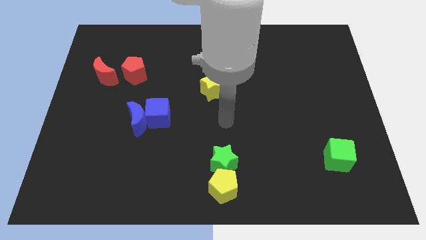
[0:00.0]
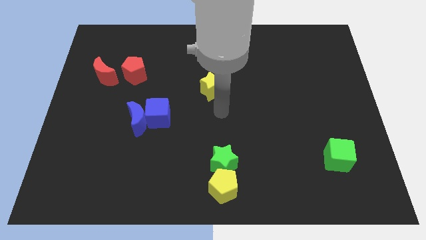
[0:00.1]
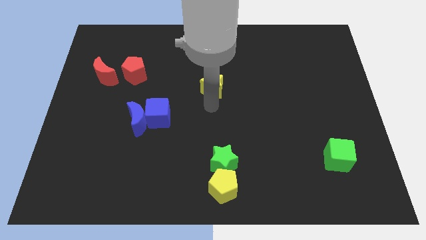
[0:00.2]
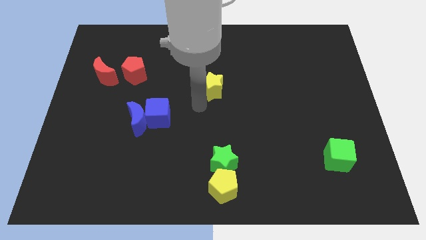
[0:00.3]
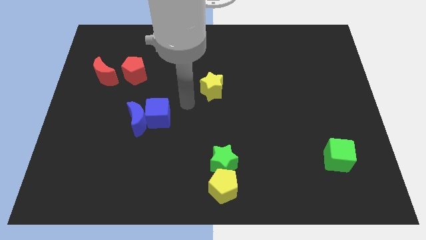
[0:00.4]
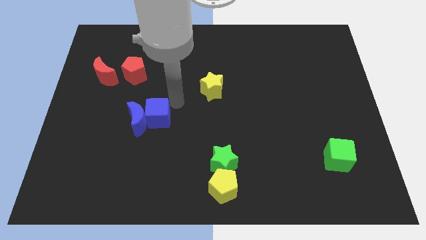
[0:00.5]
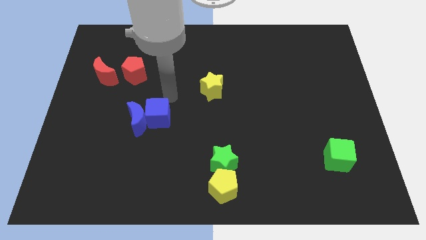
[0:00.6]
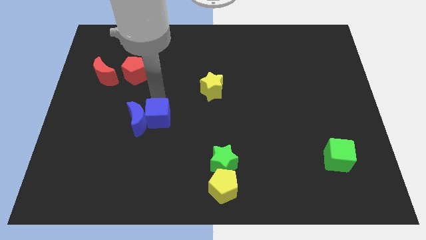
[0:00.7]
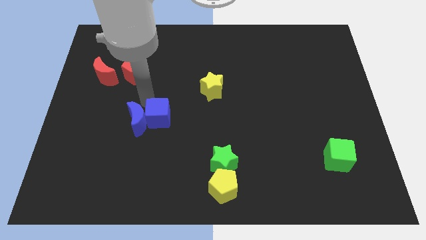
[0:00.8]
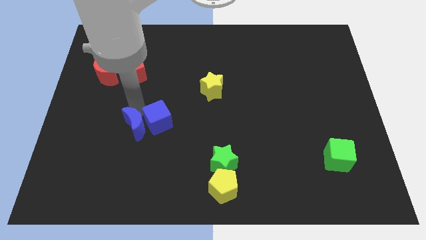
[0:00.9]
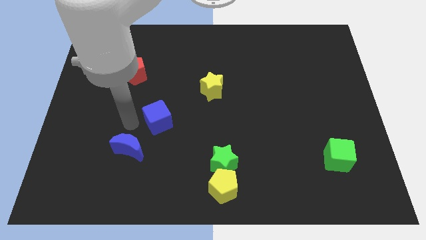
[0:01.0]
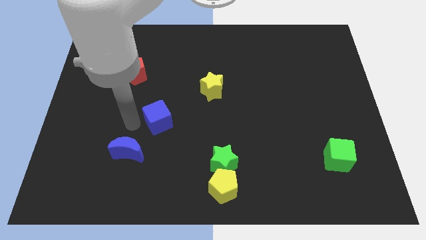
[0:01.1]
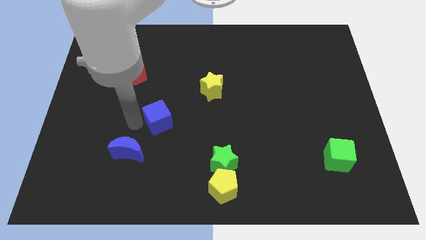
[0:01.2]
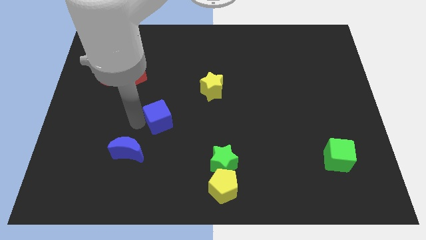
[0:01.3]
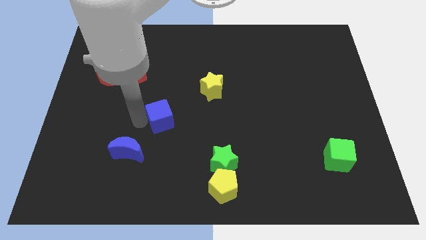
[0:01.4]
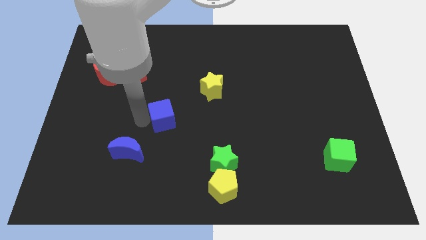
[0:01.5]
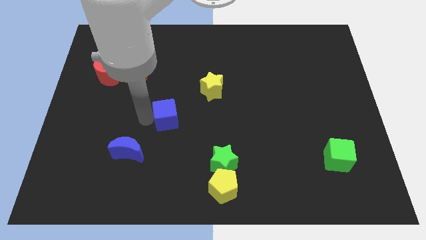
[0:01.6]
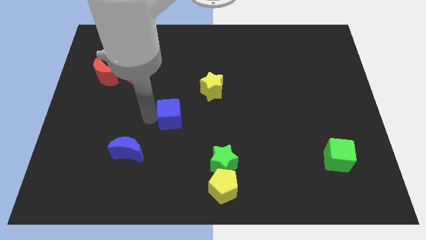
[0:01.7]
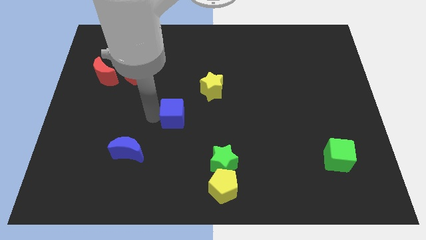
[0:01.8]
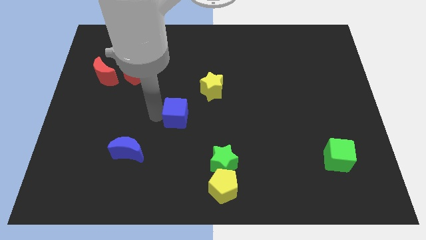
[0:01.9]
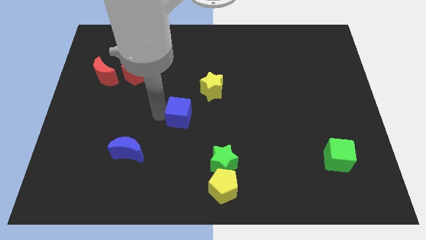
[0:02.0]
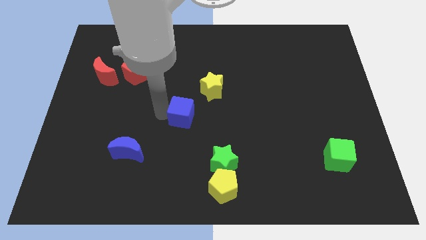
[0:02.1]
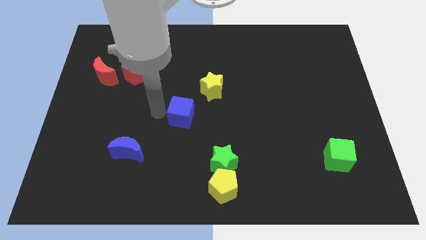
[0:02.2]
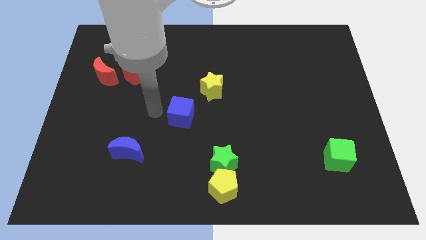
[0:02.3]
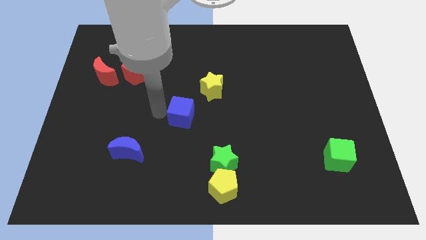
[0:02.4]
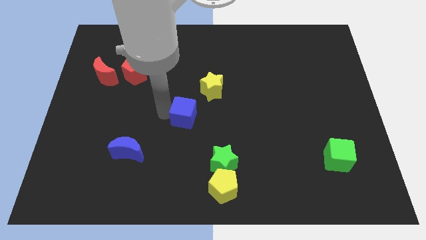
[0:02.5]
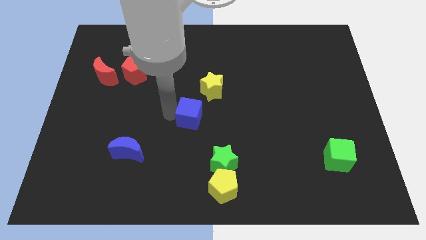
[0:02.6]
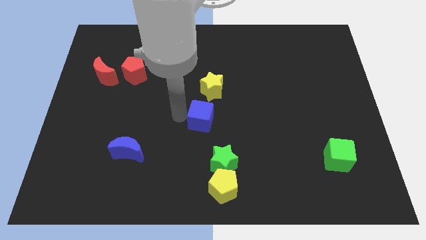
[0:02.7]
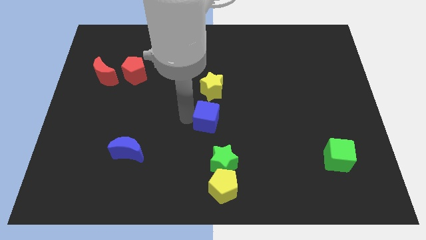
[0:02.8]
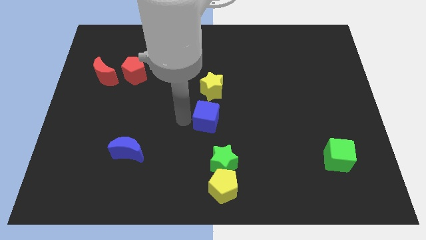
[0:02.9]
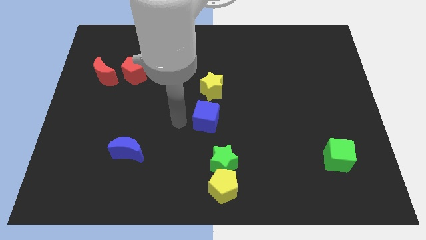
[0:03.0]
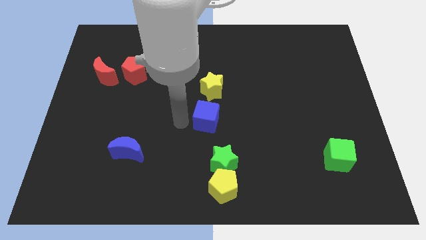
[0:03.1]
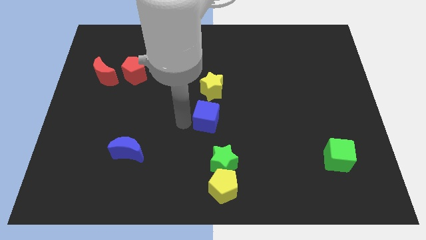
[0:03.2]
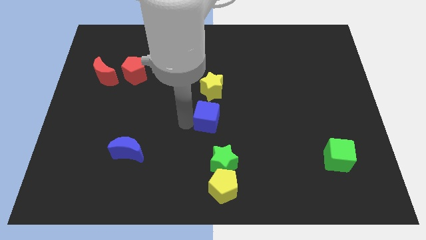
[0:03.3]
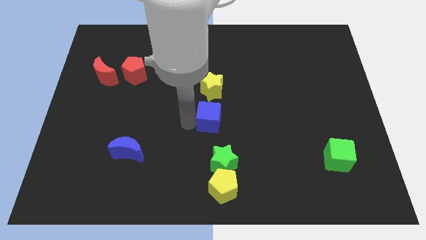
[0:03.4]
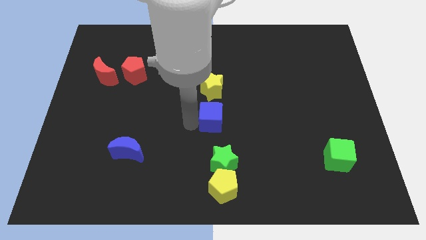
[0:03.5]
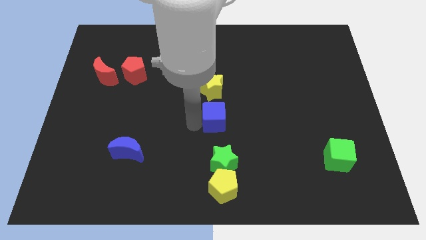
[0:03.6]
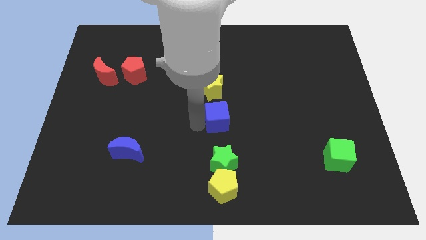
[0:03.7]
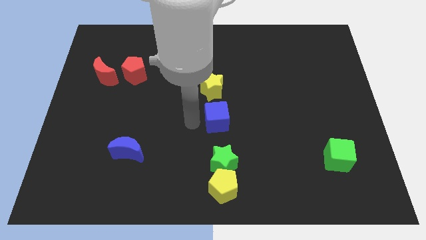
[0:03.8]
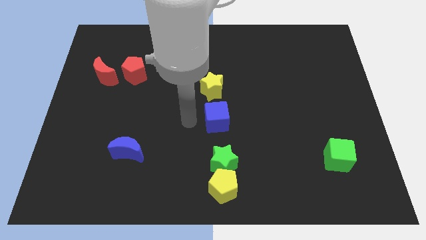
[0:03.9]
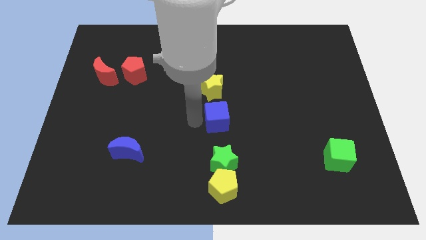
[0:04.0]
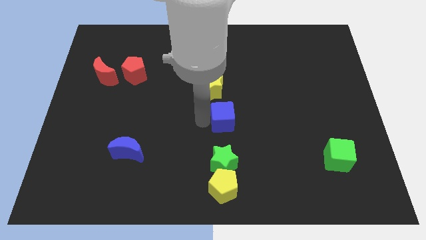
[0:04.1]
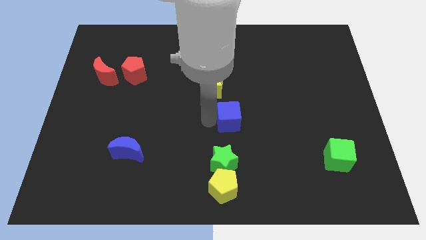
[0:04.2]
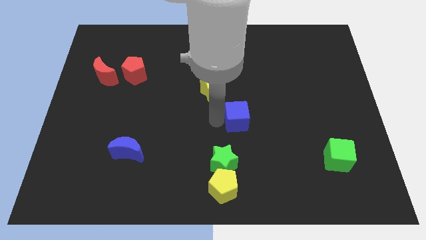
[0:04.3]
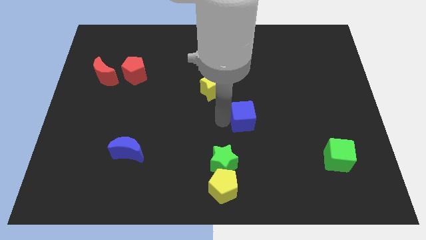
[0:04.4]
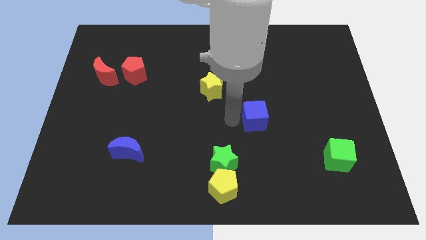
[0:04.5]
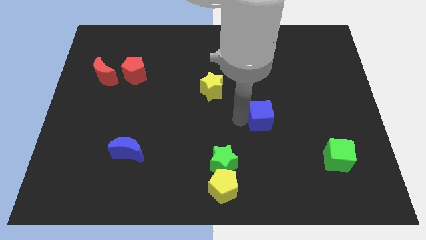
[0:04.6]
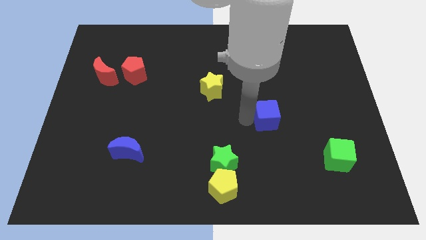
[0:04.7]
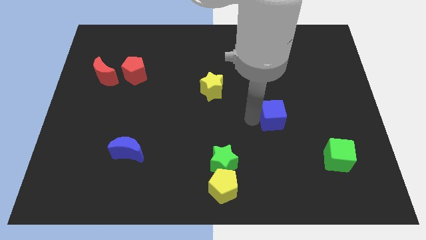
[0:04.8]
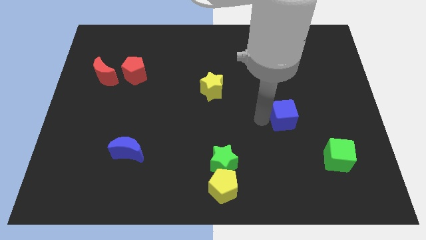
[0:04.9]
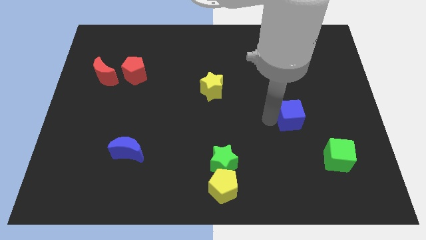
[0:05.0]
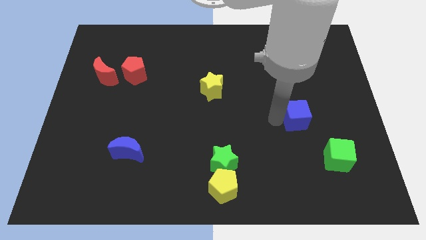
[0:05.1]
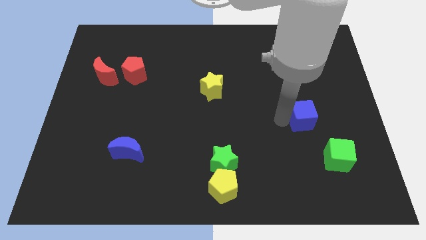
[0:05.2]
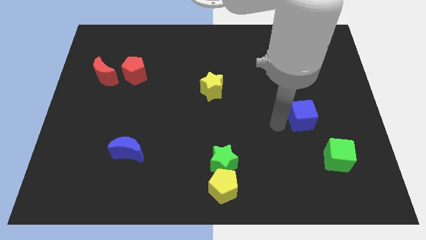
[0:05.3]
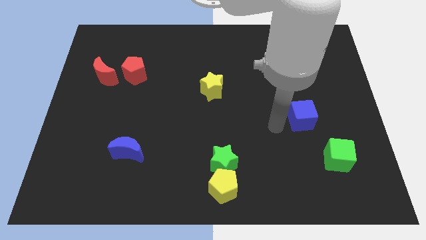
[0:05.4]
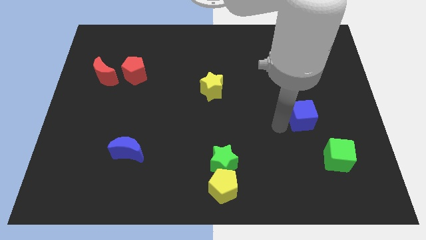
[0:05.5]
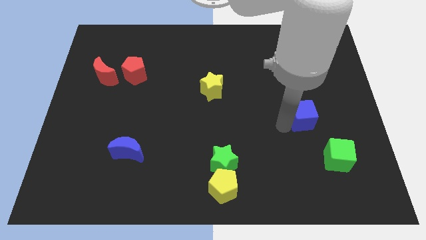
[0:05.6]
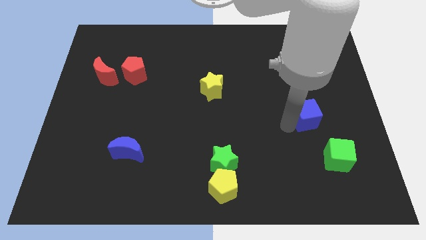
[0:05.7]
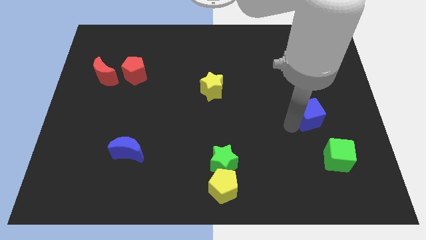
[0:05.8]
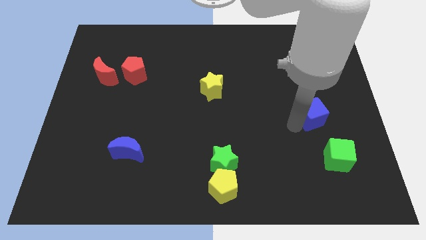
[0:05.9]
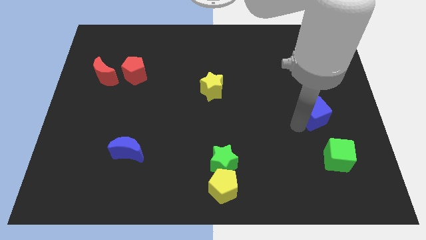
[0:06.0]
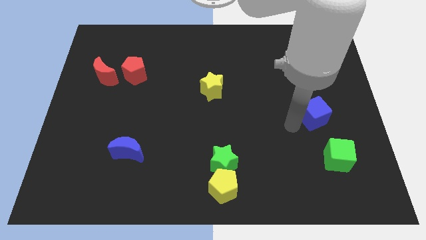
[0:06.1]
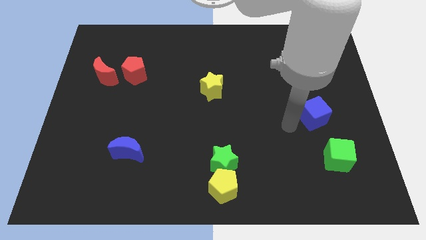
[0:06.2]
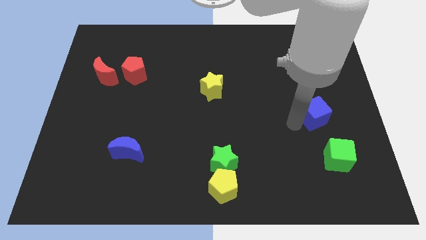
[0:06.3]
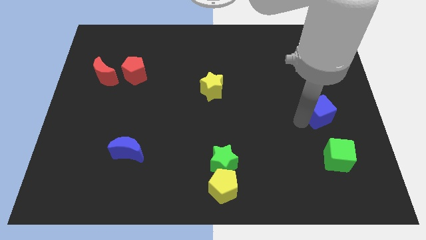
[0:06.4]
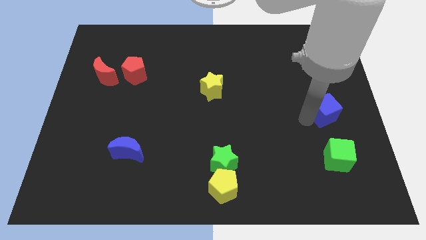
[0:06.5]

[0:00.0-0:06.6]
move the blue cube to the center right
